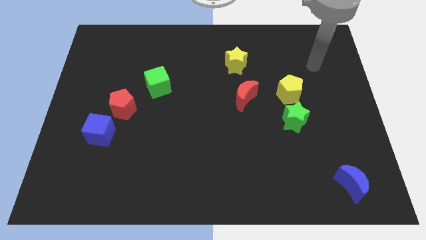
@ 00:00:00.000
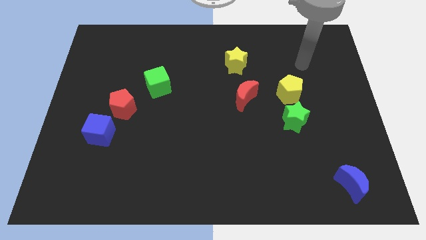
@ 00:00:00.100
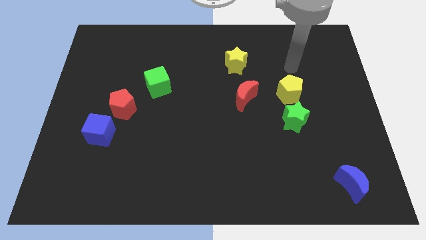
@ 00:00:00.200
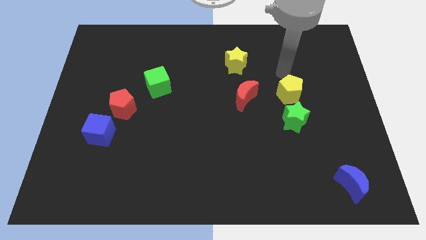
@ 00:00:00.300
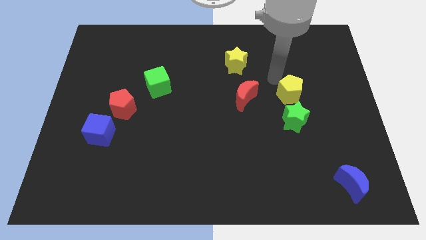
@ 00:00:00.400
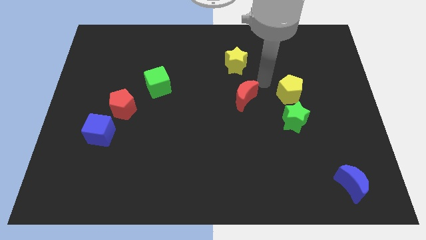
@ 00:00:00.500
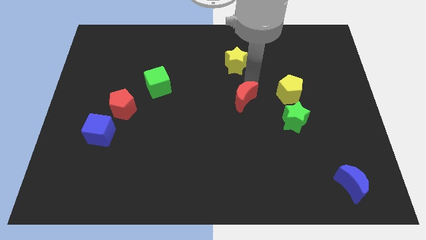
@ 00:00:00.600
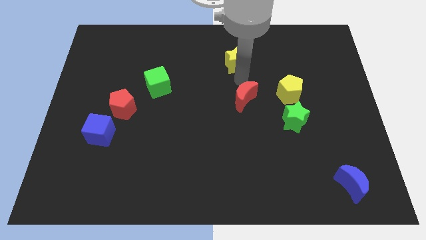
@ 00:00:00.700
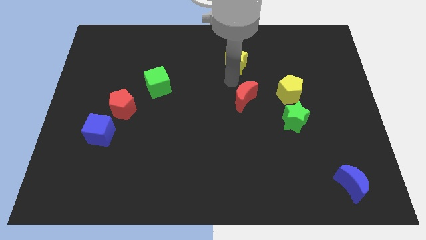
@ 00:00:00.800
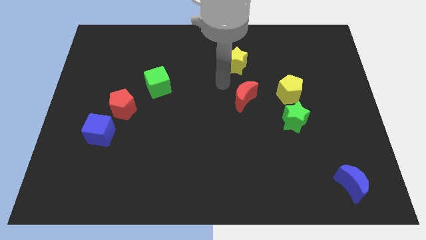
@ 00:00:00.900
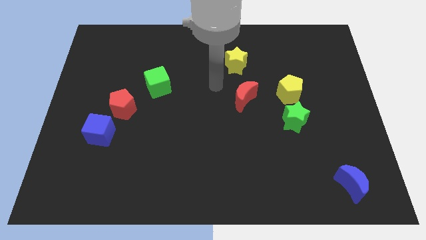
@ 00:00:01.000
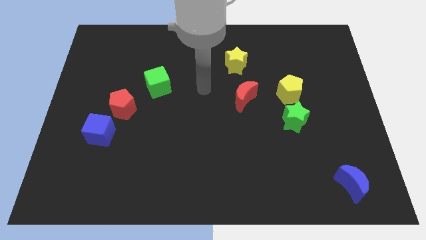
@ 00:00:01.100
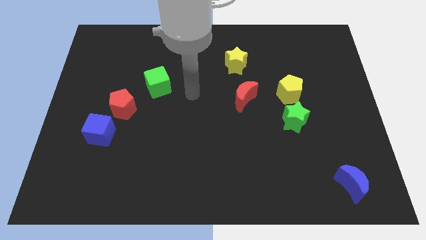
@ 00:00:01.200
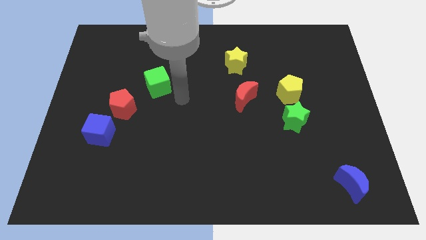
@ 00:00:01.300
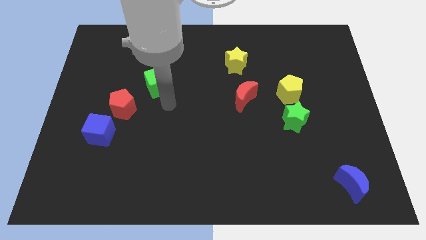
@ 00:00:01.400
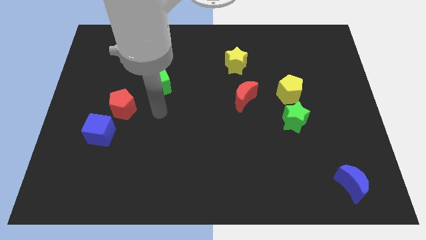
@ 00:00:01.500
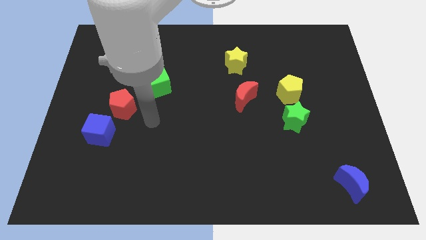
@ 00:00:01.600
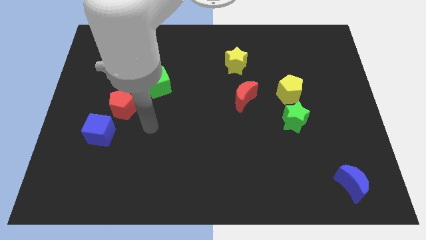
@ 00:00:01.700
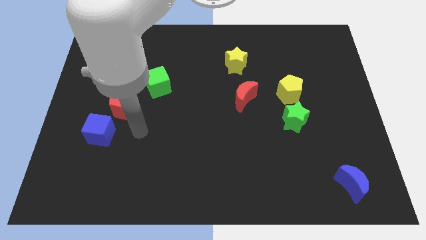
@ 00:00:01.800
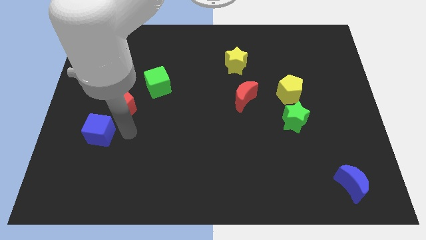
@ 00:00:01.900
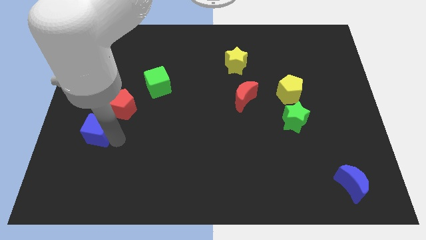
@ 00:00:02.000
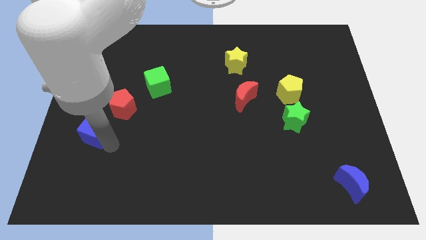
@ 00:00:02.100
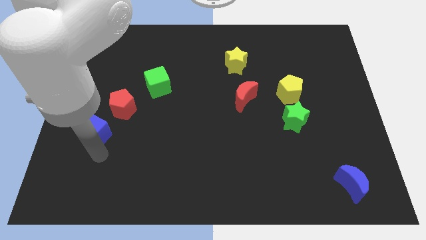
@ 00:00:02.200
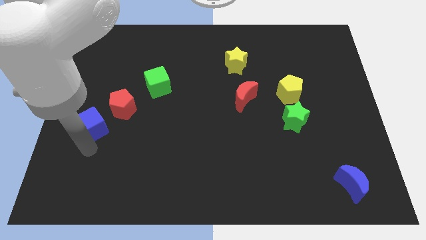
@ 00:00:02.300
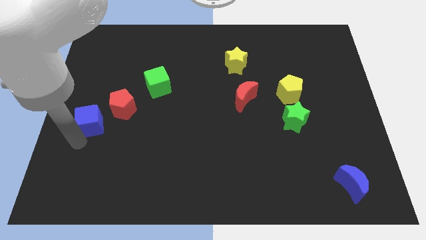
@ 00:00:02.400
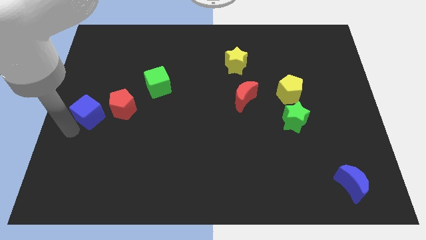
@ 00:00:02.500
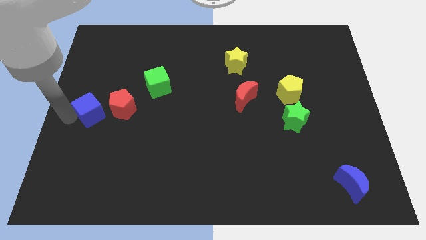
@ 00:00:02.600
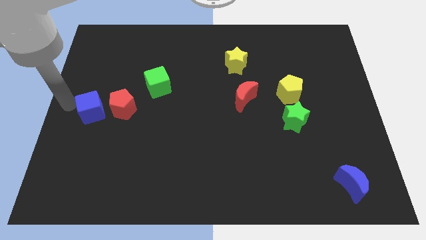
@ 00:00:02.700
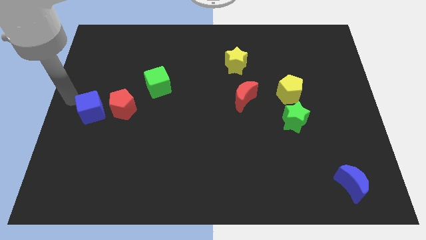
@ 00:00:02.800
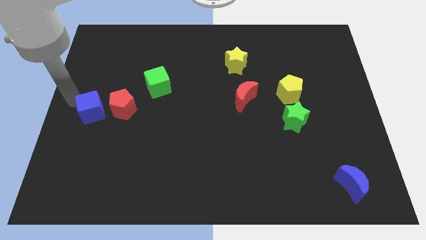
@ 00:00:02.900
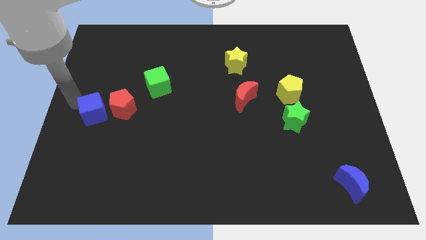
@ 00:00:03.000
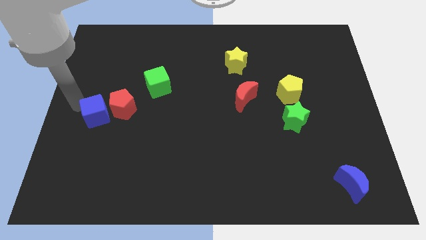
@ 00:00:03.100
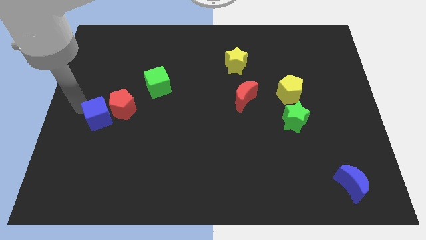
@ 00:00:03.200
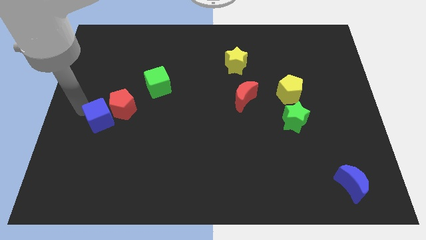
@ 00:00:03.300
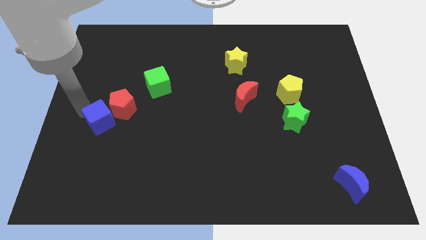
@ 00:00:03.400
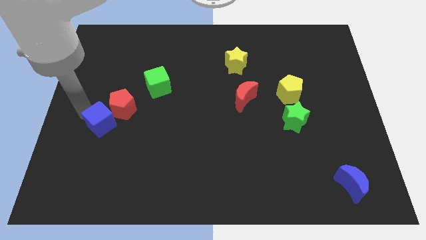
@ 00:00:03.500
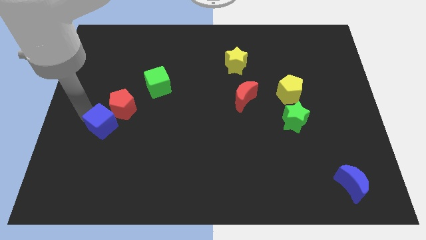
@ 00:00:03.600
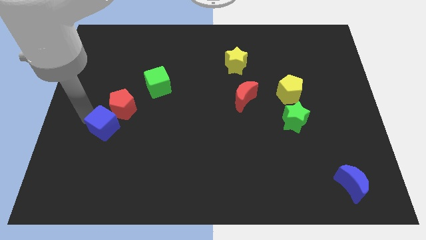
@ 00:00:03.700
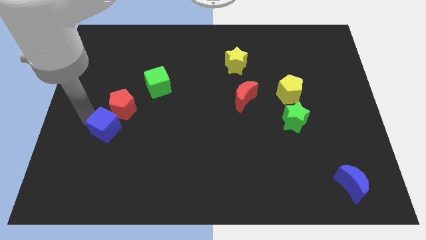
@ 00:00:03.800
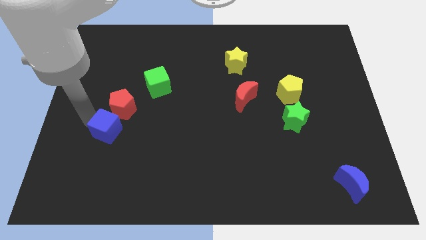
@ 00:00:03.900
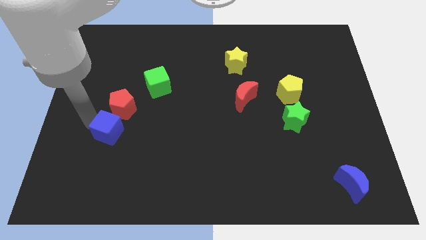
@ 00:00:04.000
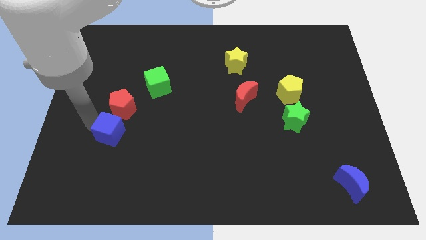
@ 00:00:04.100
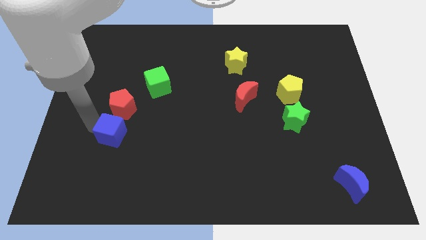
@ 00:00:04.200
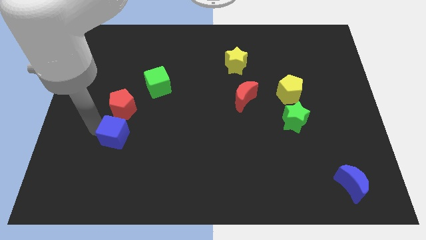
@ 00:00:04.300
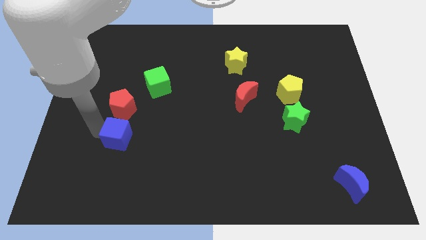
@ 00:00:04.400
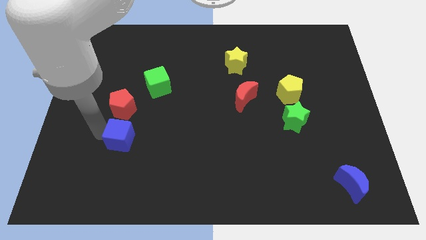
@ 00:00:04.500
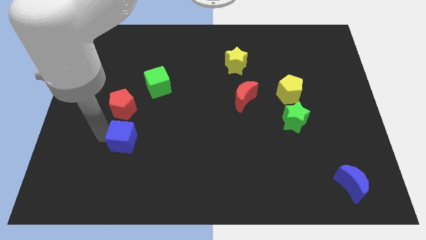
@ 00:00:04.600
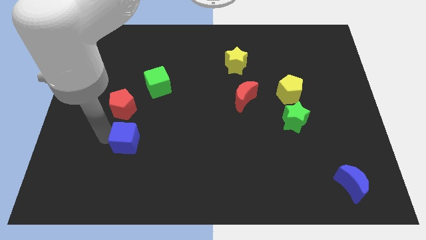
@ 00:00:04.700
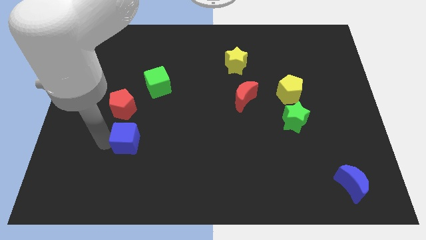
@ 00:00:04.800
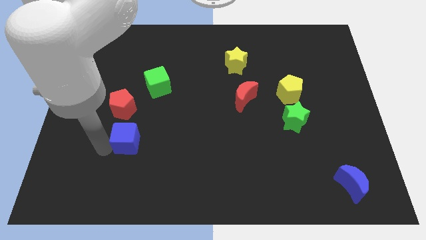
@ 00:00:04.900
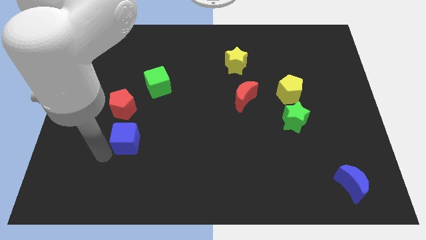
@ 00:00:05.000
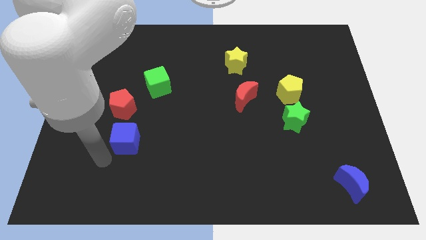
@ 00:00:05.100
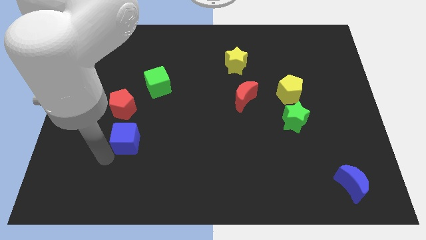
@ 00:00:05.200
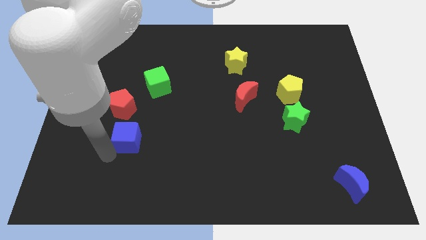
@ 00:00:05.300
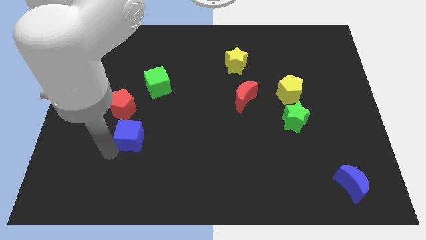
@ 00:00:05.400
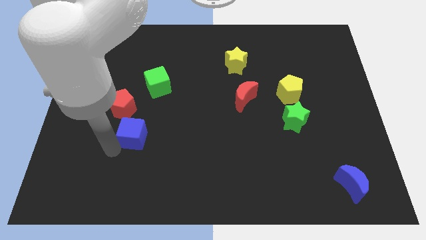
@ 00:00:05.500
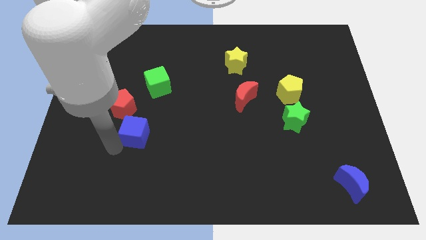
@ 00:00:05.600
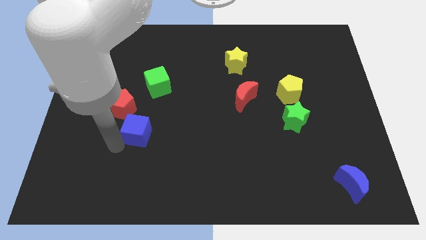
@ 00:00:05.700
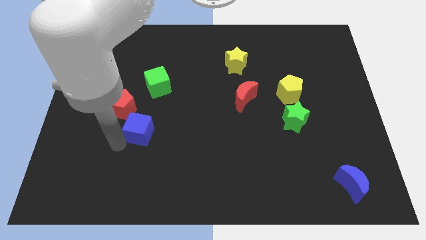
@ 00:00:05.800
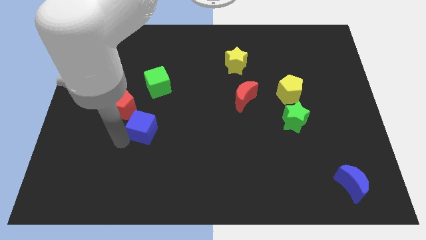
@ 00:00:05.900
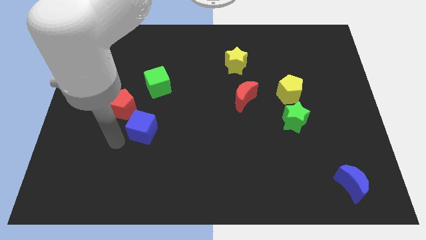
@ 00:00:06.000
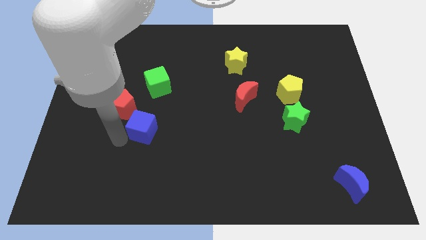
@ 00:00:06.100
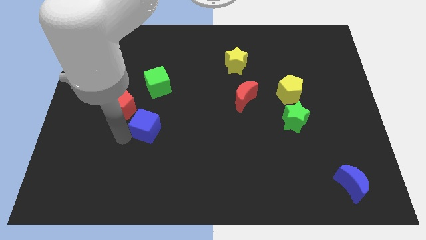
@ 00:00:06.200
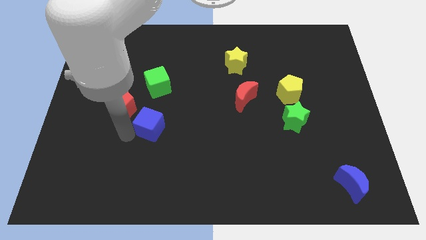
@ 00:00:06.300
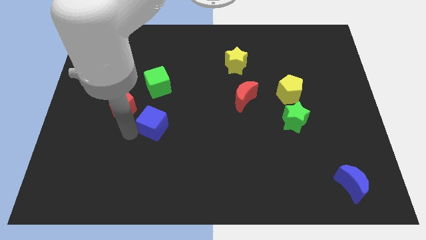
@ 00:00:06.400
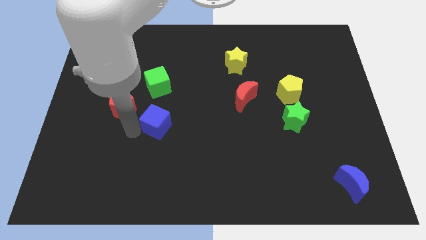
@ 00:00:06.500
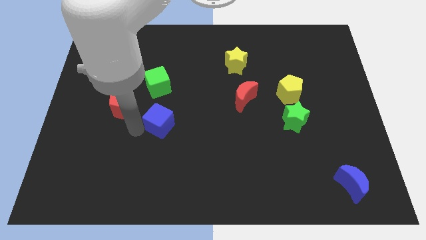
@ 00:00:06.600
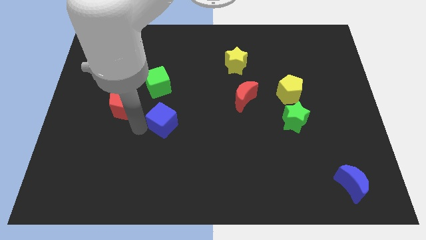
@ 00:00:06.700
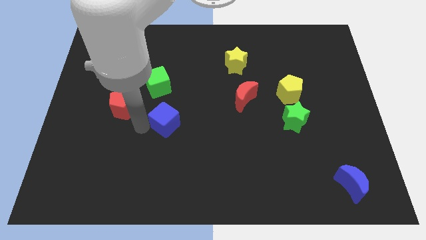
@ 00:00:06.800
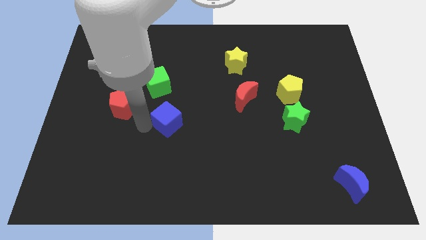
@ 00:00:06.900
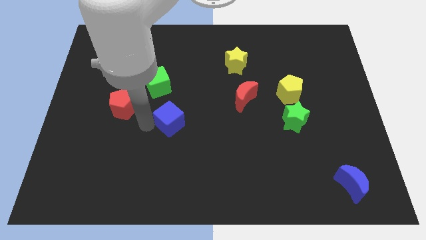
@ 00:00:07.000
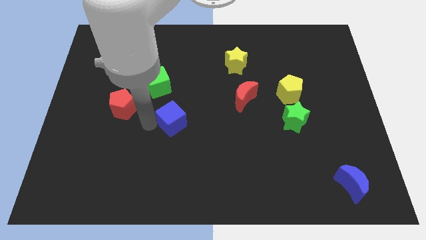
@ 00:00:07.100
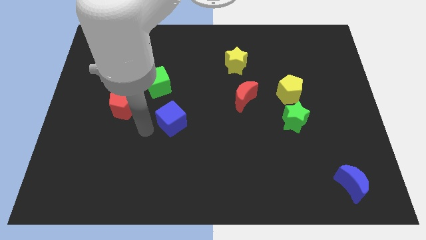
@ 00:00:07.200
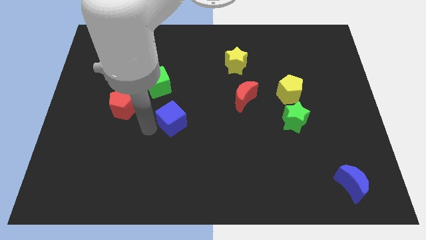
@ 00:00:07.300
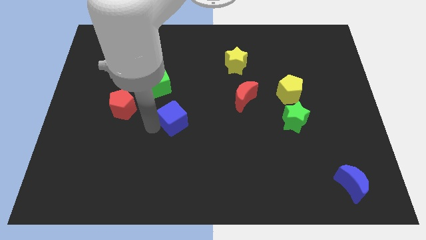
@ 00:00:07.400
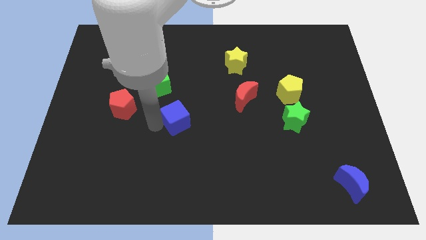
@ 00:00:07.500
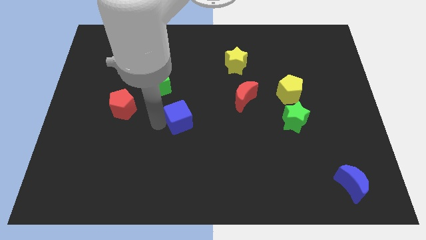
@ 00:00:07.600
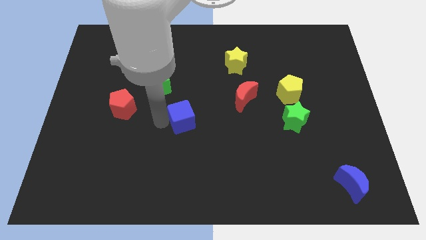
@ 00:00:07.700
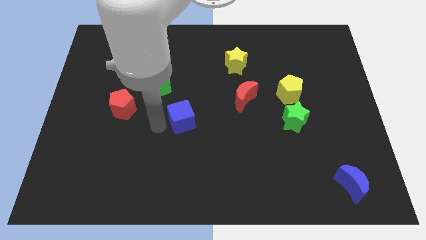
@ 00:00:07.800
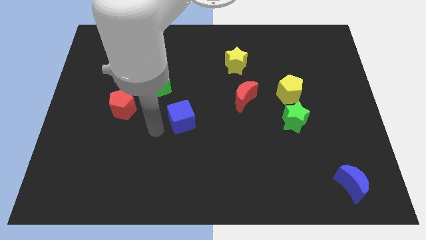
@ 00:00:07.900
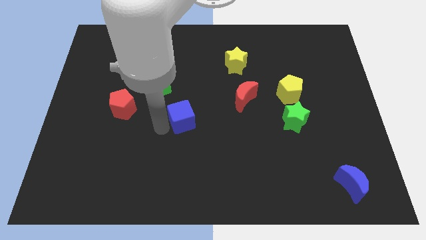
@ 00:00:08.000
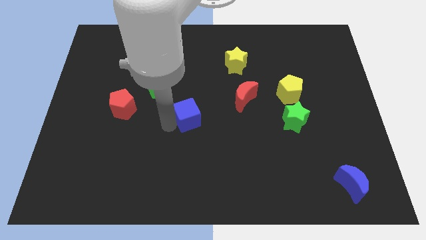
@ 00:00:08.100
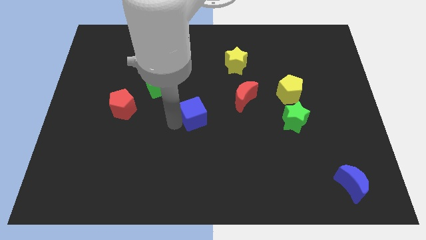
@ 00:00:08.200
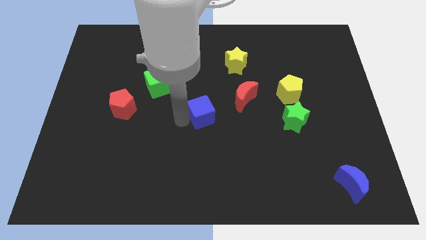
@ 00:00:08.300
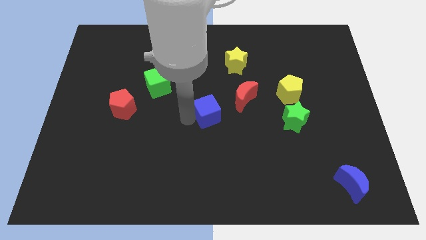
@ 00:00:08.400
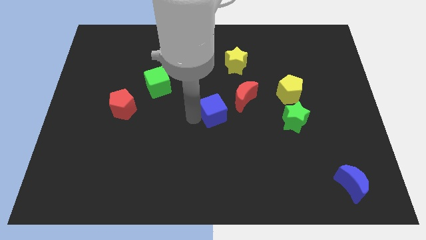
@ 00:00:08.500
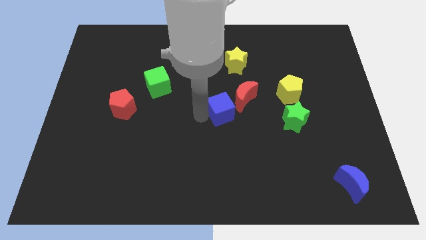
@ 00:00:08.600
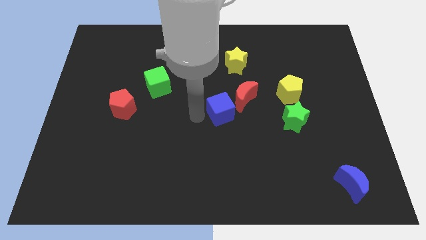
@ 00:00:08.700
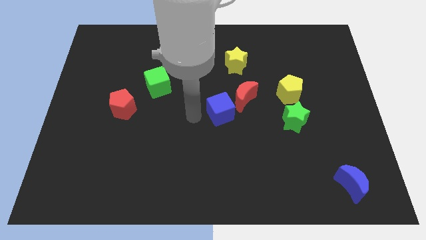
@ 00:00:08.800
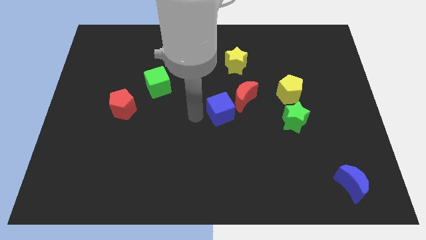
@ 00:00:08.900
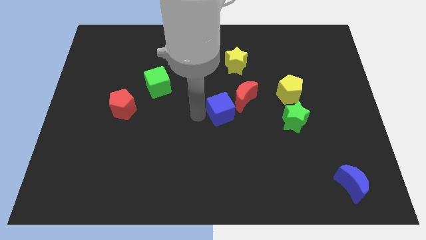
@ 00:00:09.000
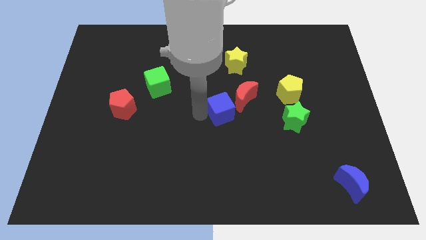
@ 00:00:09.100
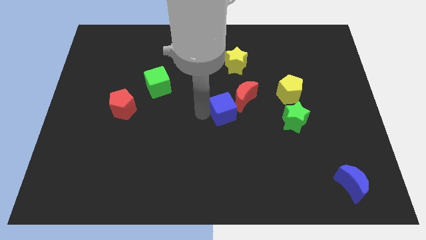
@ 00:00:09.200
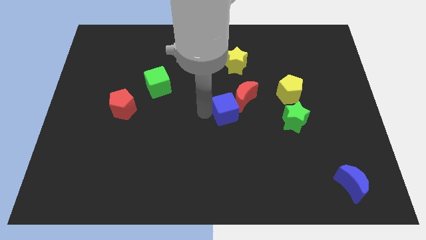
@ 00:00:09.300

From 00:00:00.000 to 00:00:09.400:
move the blue cube to the bottom of the yellow star
